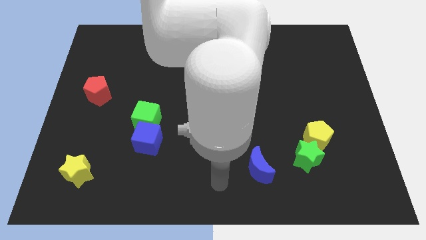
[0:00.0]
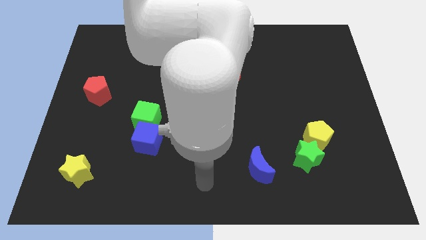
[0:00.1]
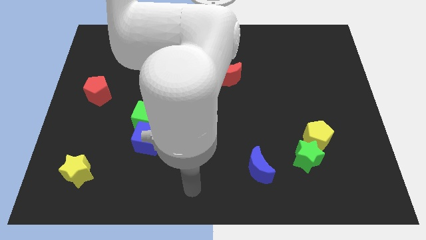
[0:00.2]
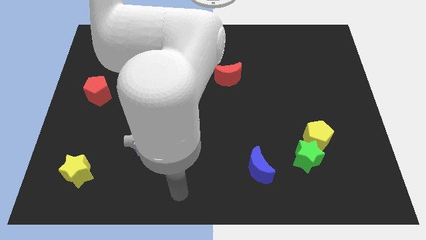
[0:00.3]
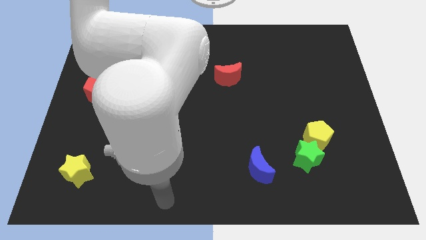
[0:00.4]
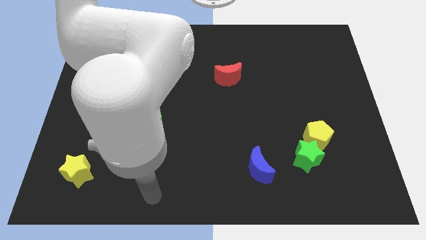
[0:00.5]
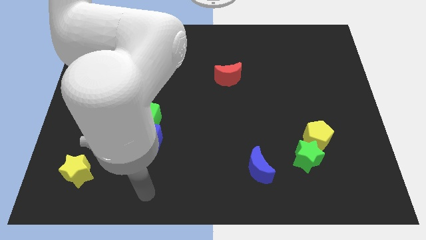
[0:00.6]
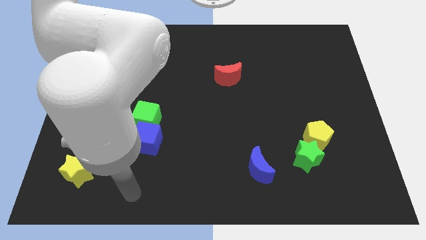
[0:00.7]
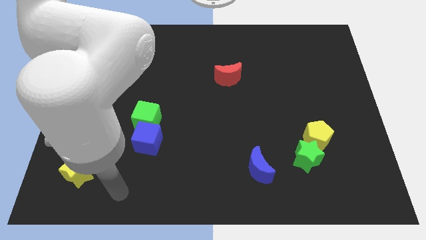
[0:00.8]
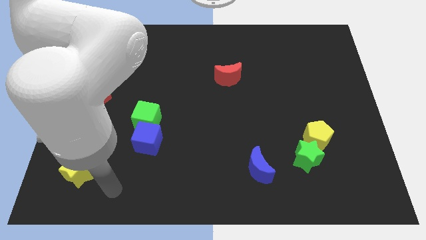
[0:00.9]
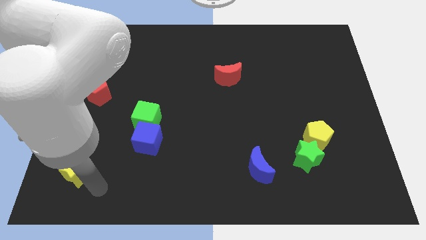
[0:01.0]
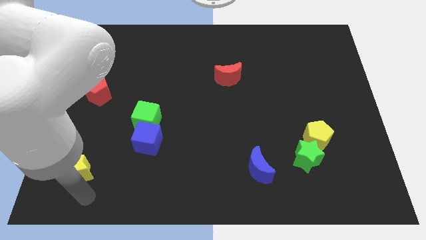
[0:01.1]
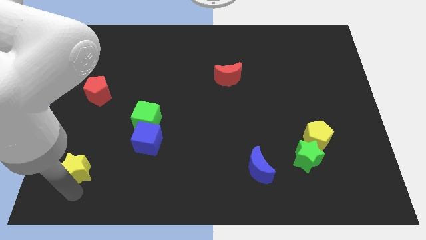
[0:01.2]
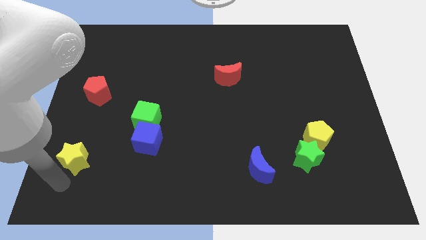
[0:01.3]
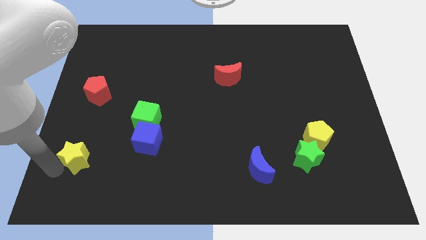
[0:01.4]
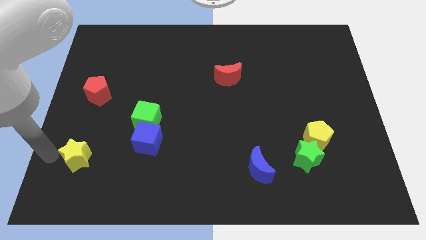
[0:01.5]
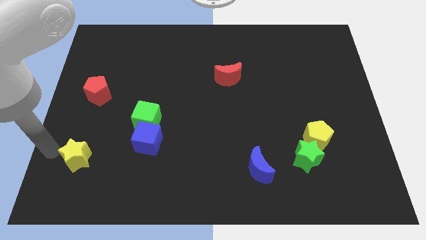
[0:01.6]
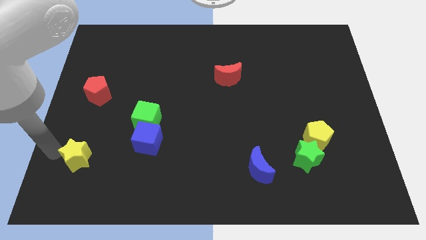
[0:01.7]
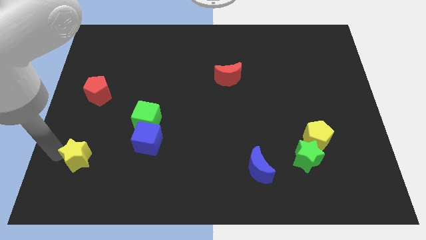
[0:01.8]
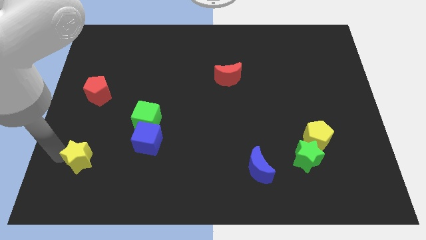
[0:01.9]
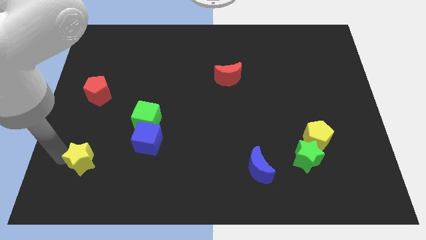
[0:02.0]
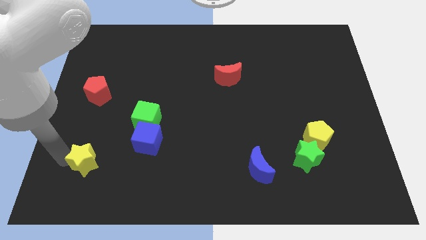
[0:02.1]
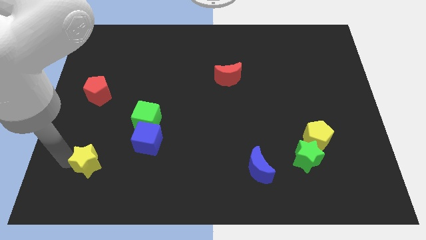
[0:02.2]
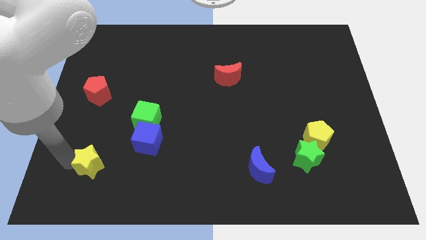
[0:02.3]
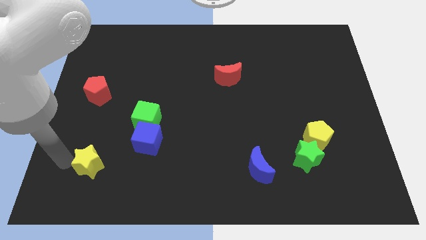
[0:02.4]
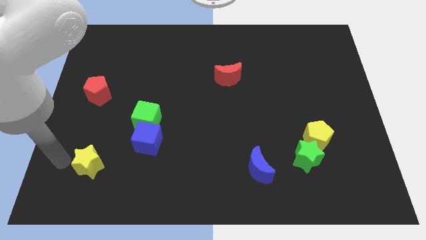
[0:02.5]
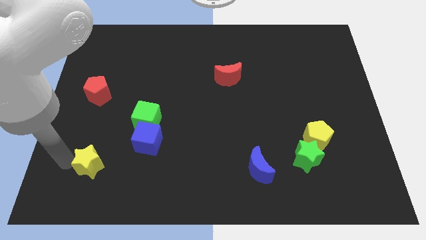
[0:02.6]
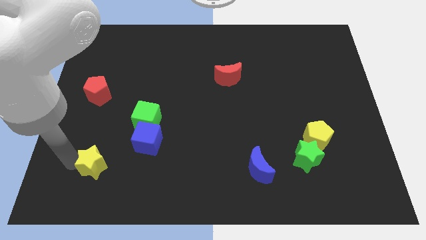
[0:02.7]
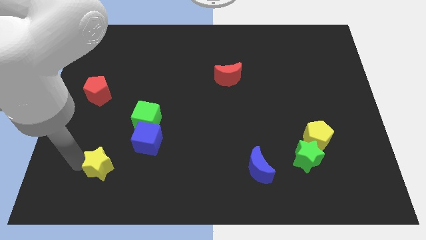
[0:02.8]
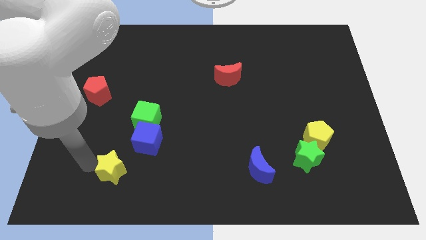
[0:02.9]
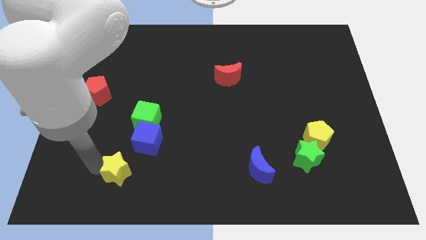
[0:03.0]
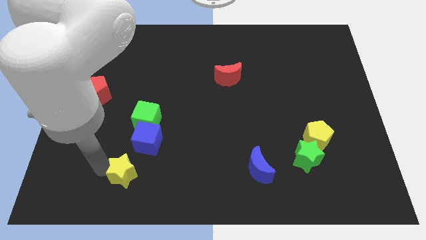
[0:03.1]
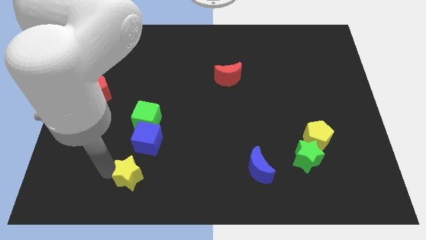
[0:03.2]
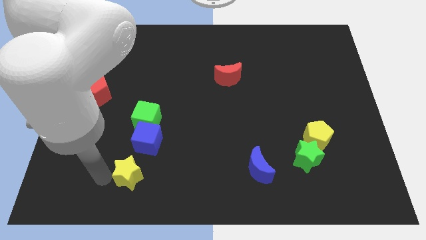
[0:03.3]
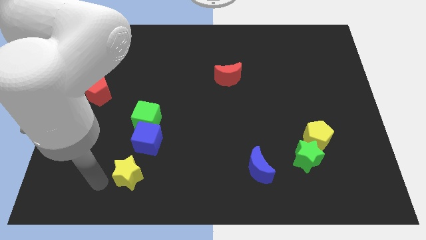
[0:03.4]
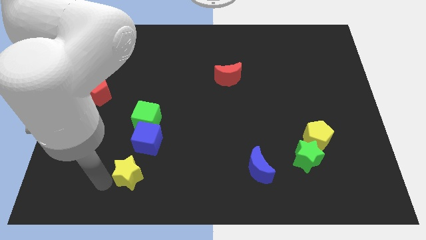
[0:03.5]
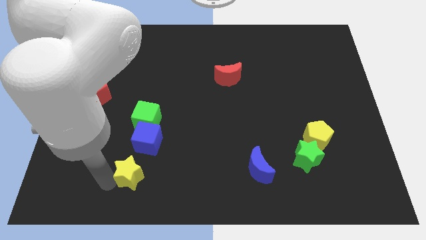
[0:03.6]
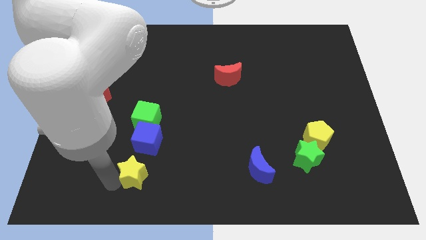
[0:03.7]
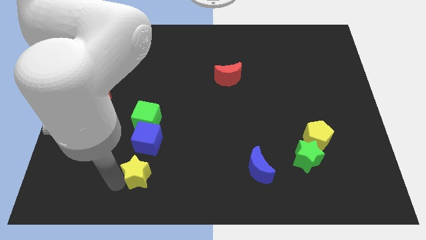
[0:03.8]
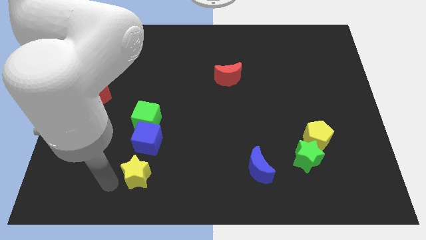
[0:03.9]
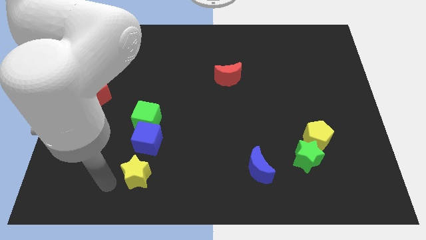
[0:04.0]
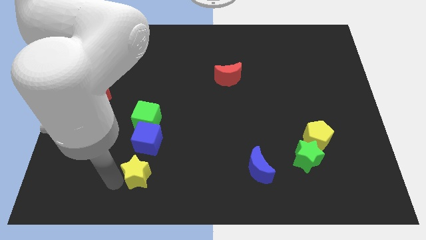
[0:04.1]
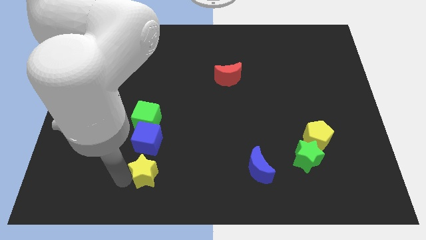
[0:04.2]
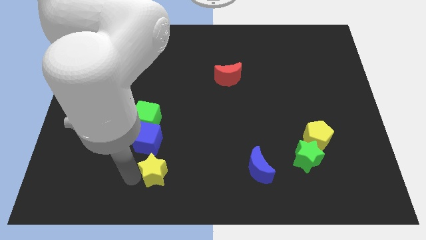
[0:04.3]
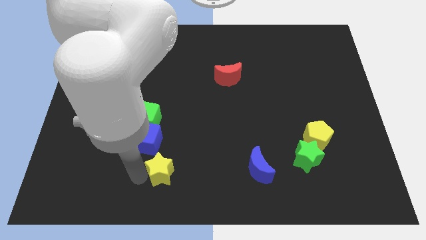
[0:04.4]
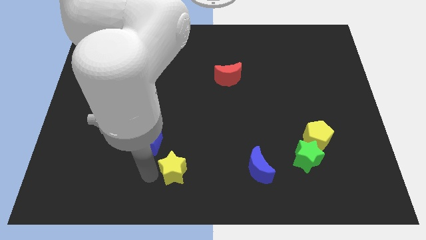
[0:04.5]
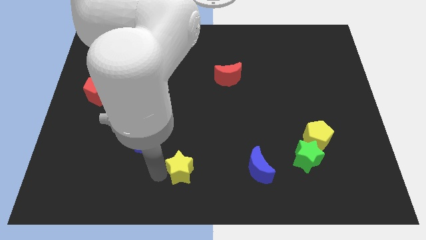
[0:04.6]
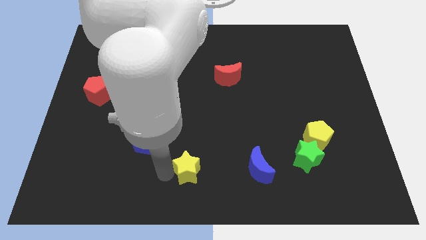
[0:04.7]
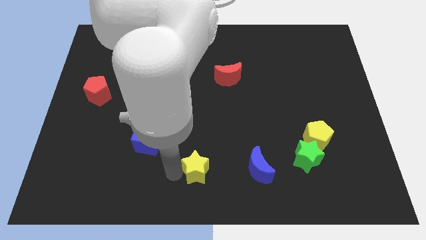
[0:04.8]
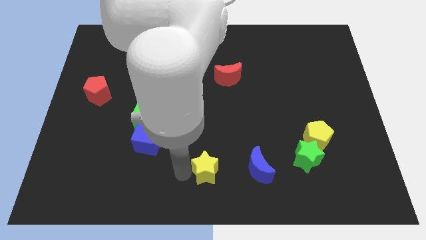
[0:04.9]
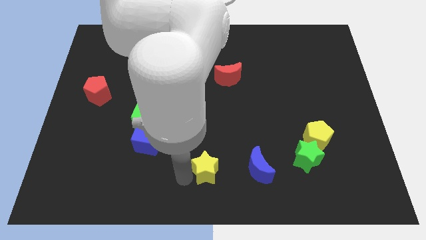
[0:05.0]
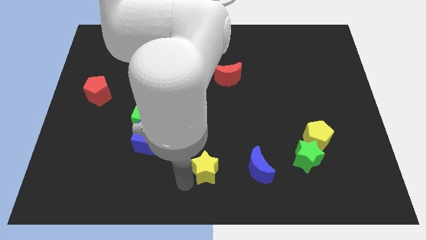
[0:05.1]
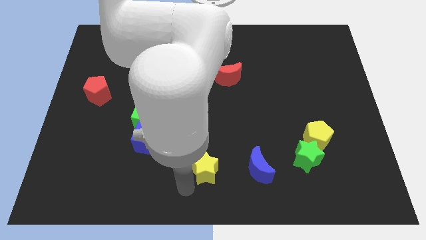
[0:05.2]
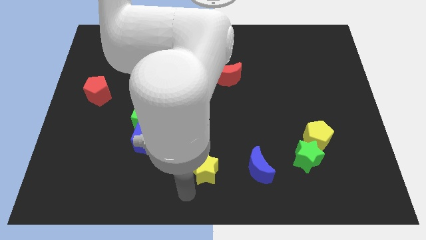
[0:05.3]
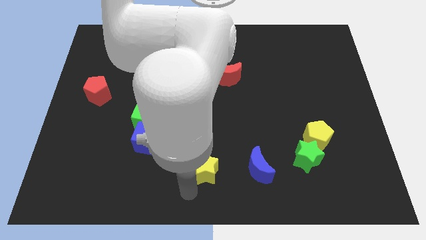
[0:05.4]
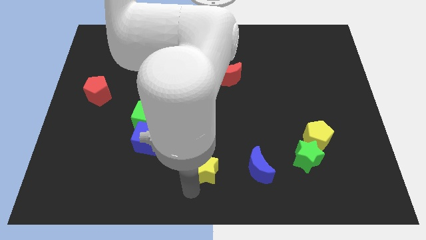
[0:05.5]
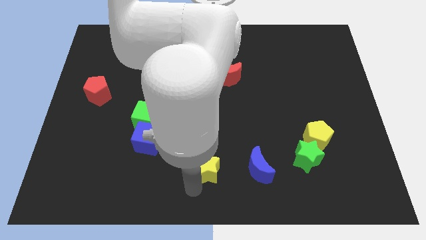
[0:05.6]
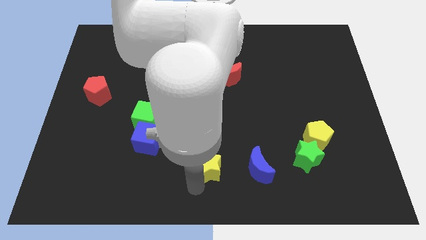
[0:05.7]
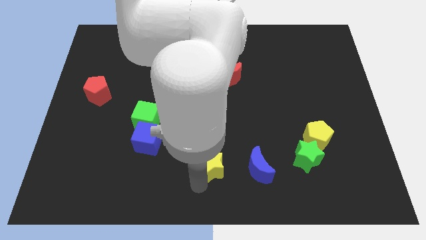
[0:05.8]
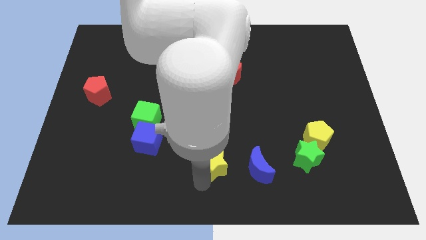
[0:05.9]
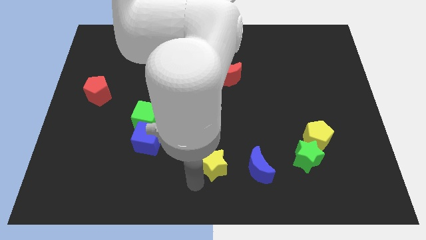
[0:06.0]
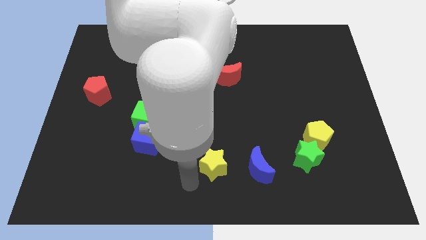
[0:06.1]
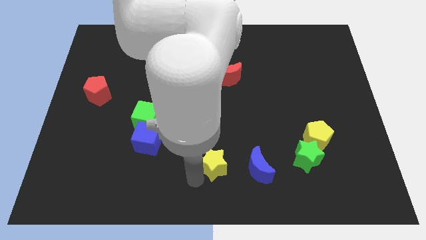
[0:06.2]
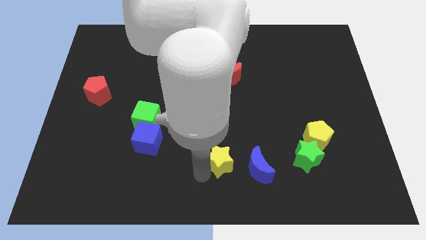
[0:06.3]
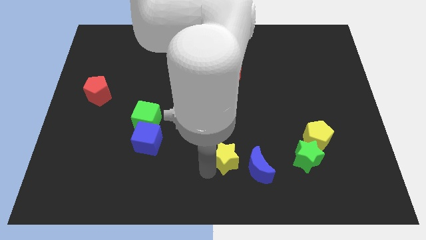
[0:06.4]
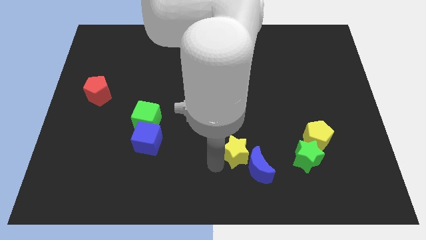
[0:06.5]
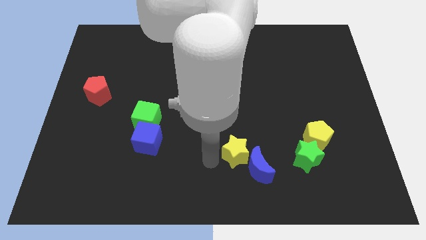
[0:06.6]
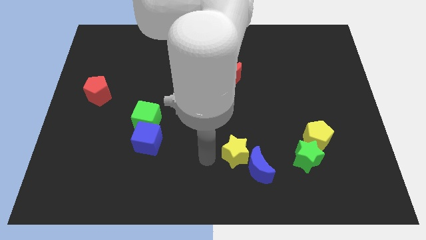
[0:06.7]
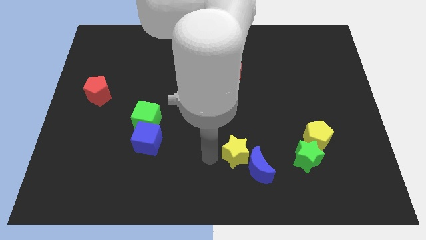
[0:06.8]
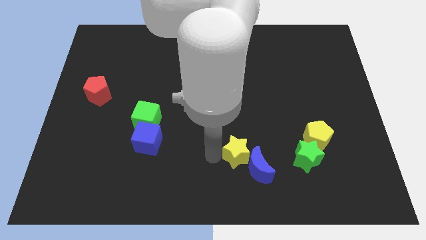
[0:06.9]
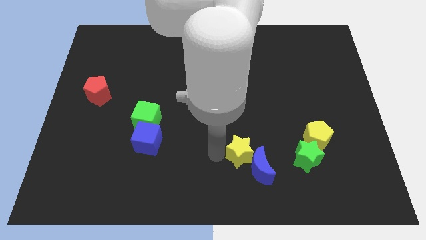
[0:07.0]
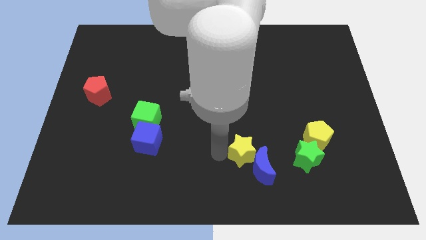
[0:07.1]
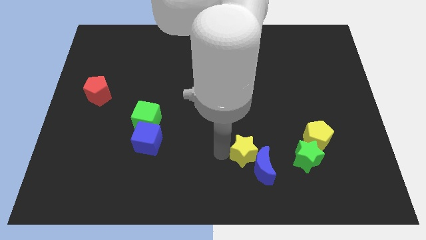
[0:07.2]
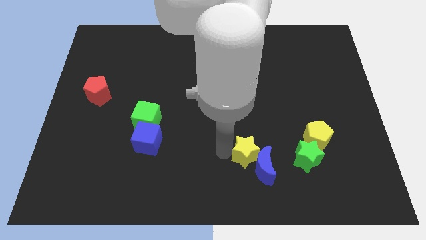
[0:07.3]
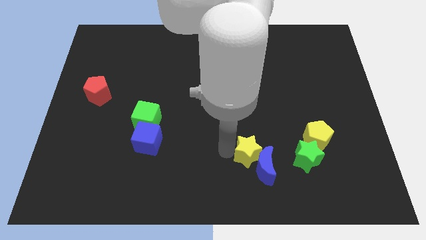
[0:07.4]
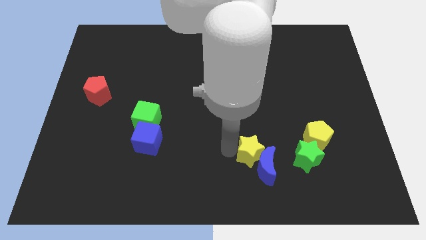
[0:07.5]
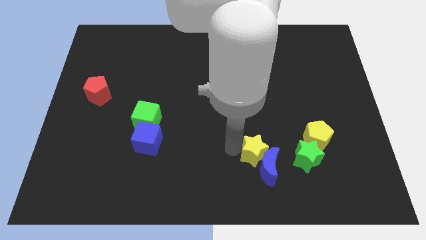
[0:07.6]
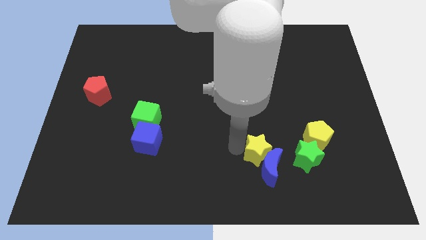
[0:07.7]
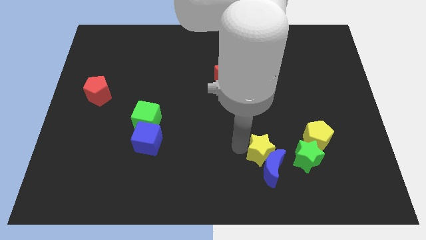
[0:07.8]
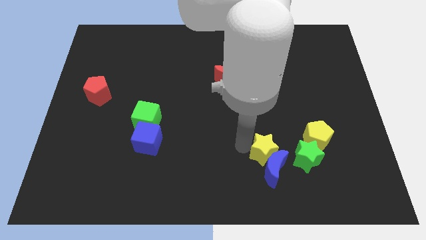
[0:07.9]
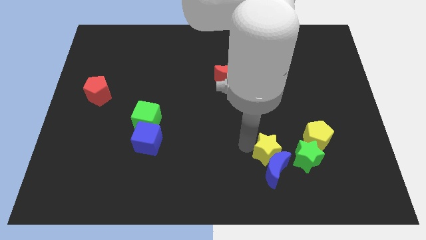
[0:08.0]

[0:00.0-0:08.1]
push the yellow star to the top left side of the green star
